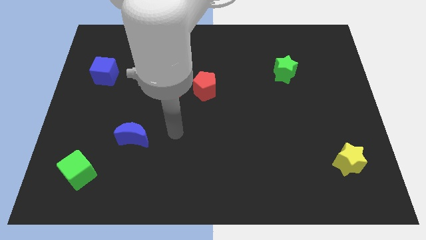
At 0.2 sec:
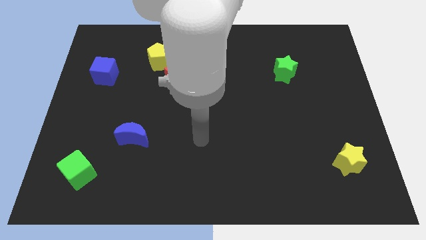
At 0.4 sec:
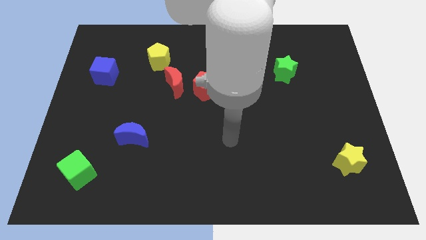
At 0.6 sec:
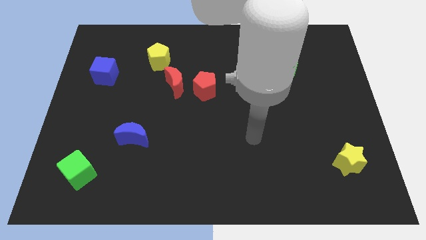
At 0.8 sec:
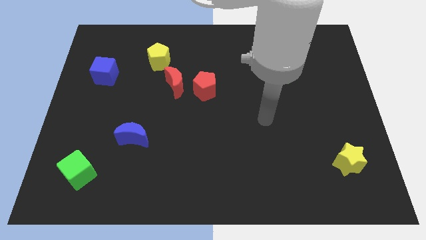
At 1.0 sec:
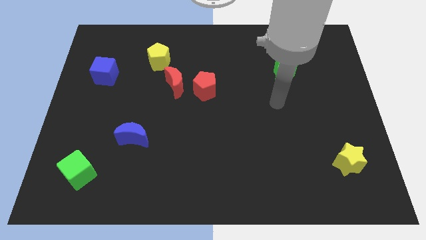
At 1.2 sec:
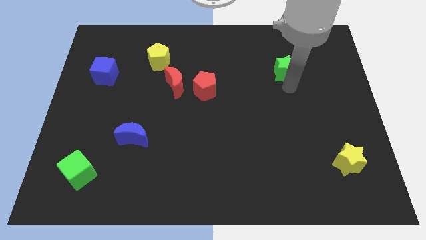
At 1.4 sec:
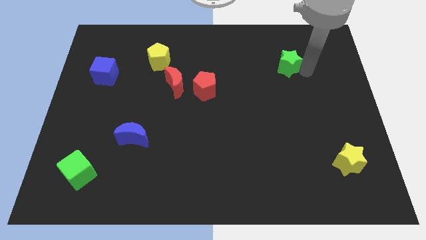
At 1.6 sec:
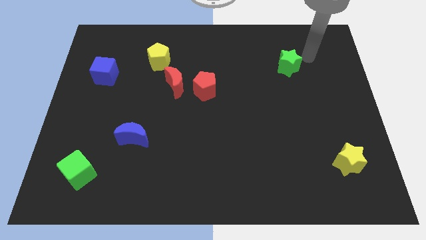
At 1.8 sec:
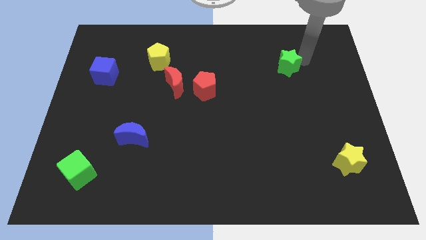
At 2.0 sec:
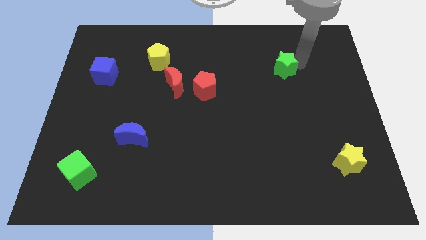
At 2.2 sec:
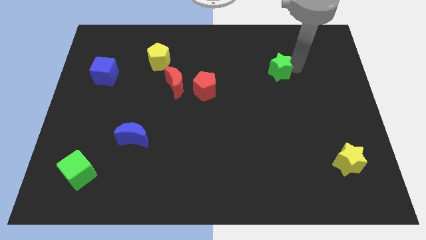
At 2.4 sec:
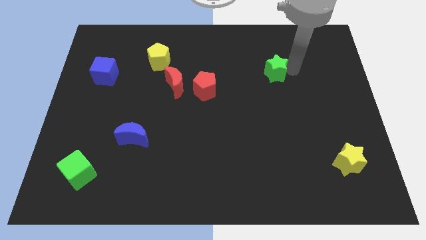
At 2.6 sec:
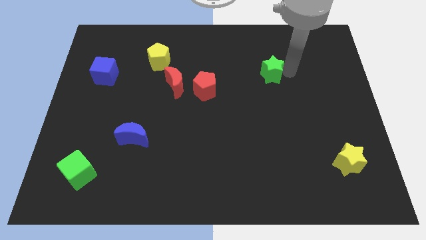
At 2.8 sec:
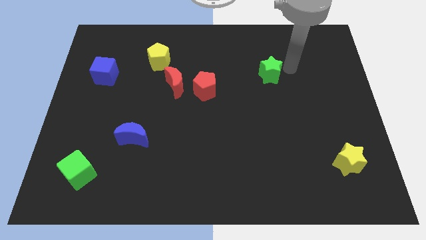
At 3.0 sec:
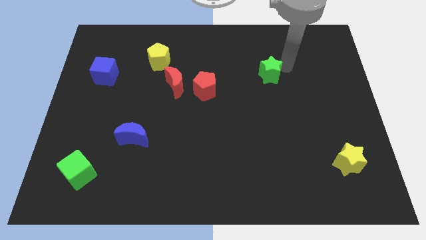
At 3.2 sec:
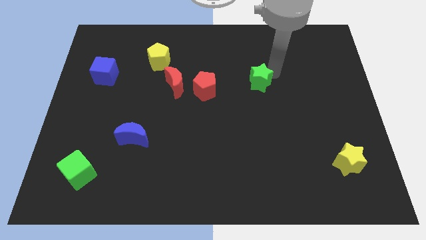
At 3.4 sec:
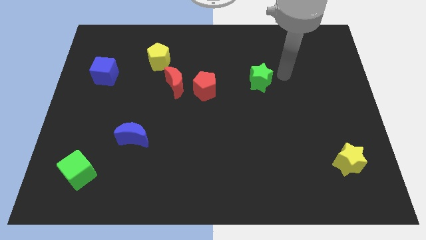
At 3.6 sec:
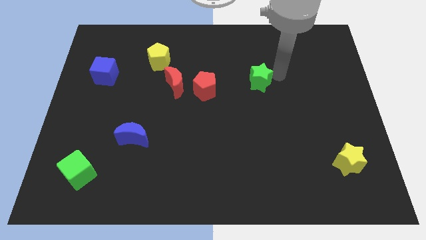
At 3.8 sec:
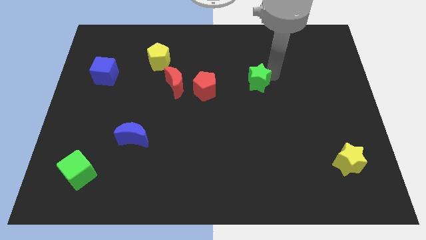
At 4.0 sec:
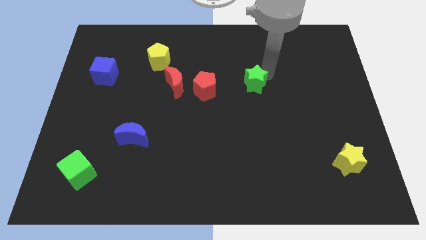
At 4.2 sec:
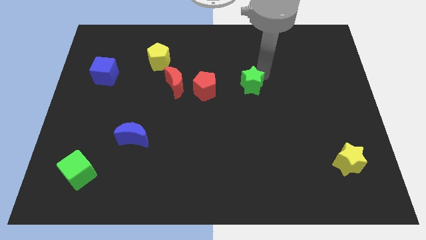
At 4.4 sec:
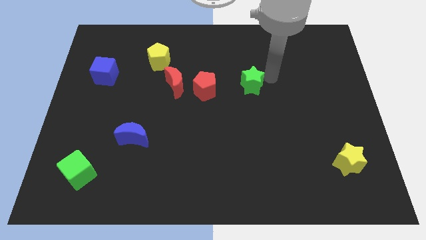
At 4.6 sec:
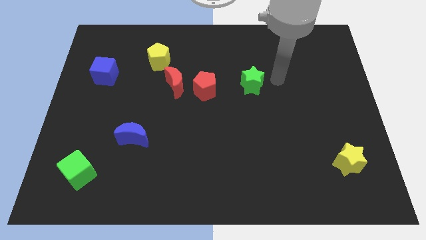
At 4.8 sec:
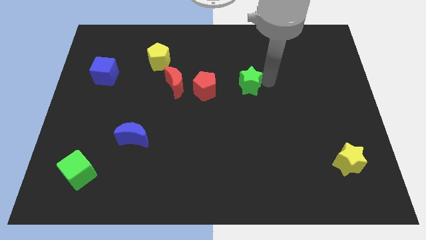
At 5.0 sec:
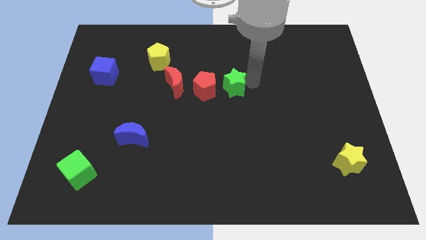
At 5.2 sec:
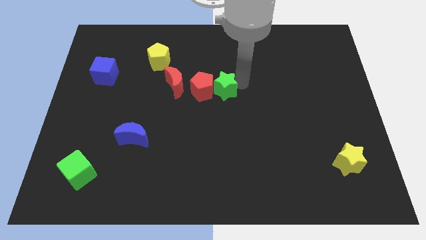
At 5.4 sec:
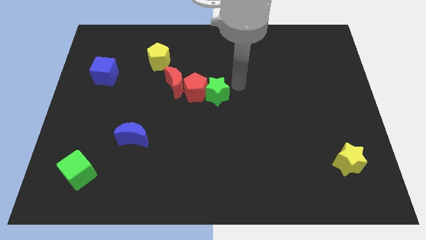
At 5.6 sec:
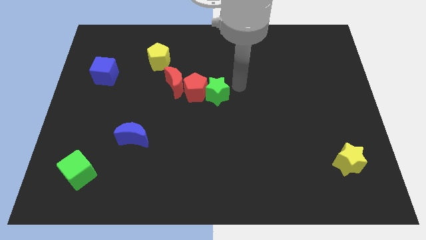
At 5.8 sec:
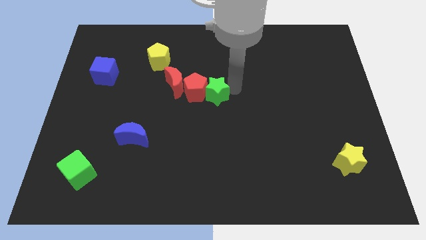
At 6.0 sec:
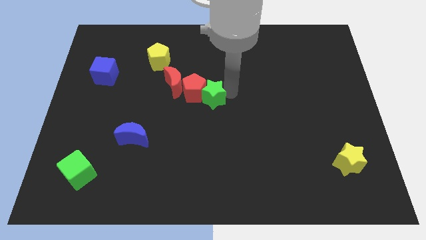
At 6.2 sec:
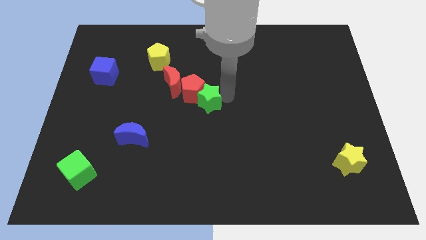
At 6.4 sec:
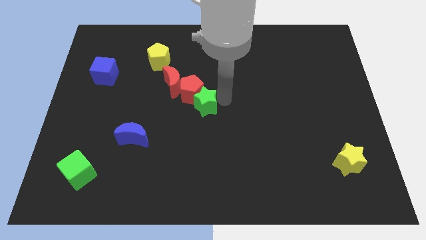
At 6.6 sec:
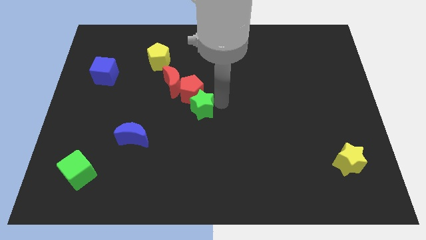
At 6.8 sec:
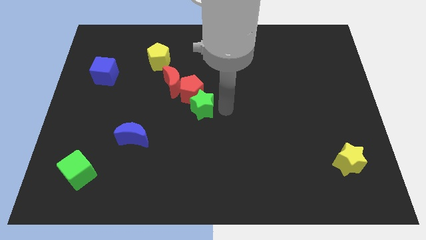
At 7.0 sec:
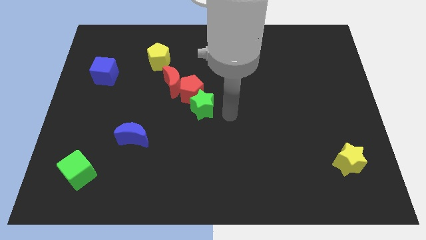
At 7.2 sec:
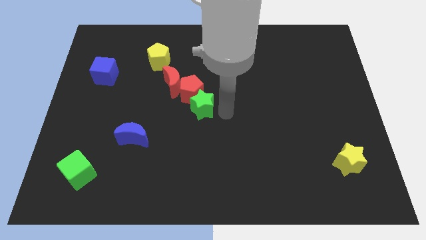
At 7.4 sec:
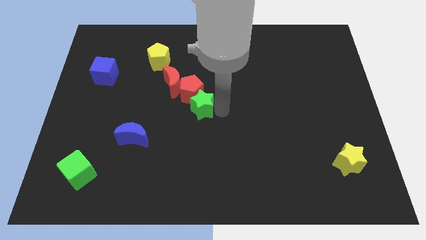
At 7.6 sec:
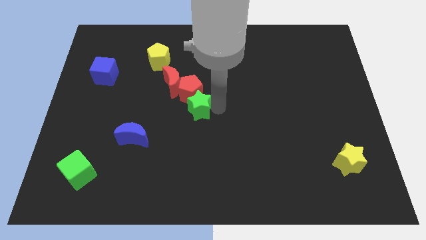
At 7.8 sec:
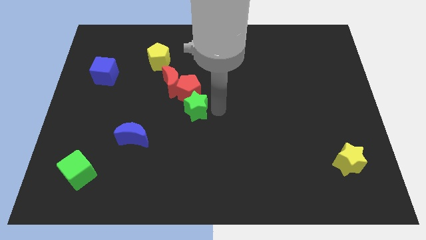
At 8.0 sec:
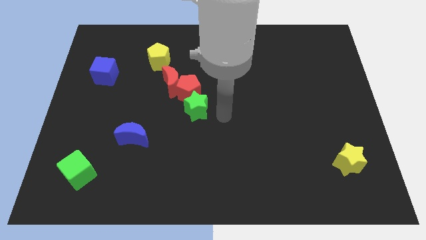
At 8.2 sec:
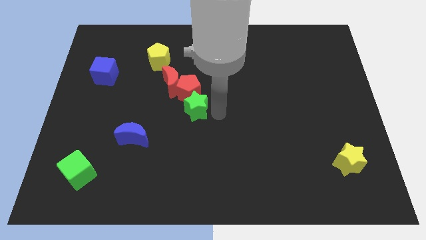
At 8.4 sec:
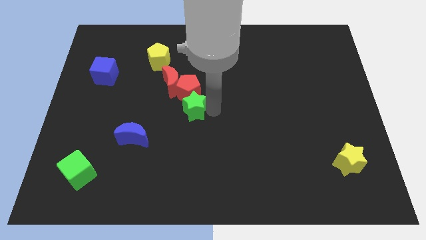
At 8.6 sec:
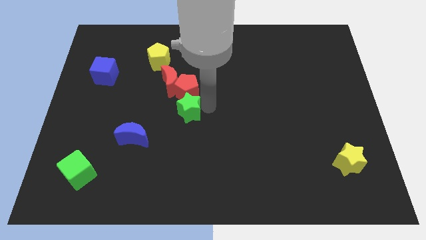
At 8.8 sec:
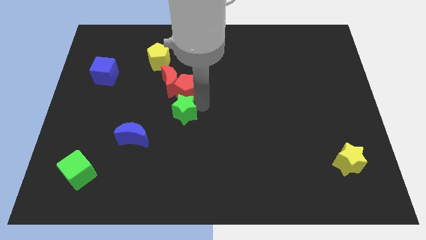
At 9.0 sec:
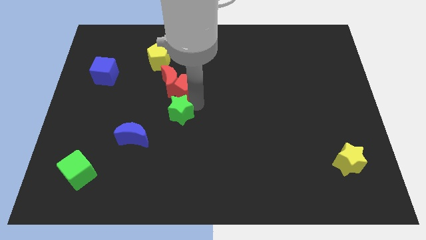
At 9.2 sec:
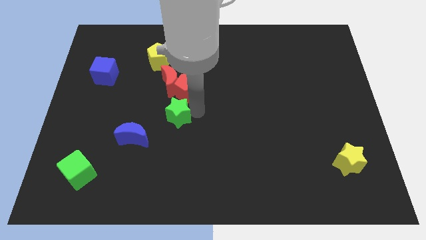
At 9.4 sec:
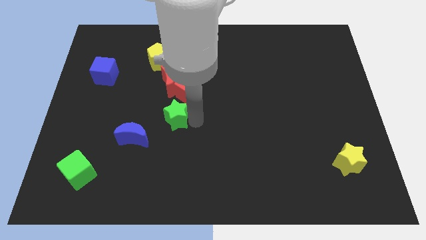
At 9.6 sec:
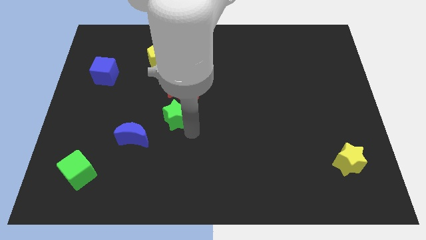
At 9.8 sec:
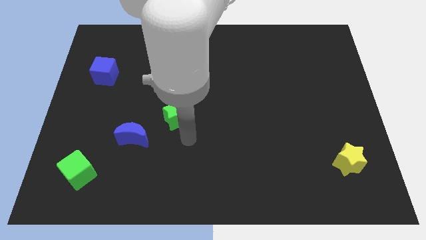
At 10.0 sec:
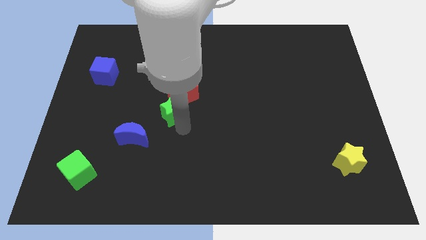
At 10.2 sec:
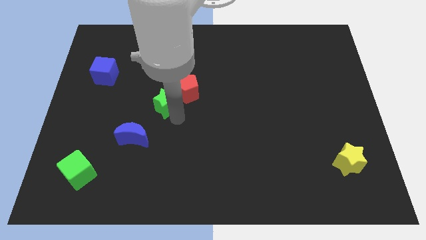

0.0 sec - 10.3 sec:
slide the green star to the bottom of the yellow pentagon
